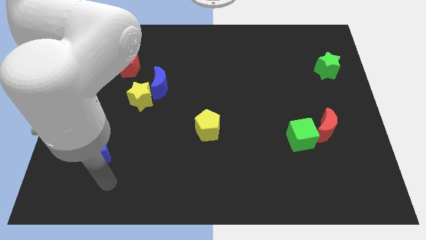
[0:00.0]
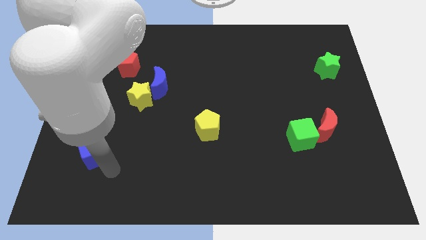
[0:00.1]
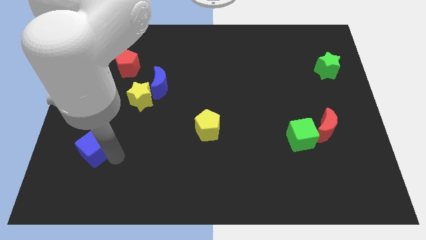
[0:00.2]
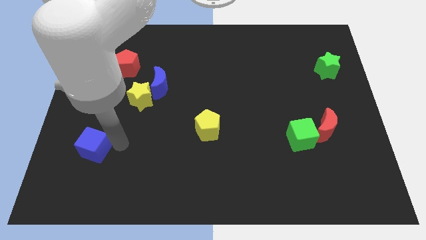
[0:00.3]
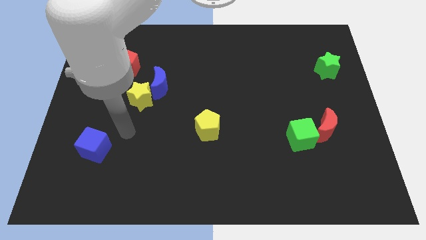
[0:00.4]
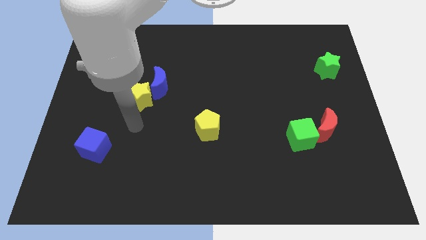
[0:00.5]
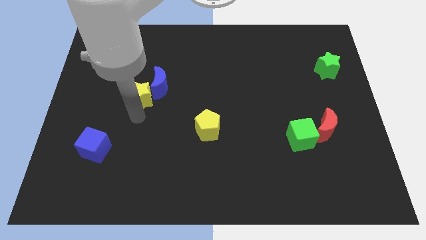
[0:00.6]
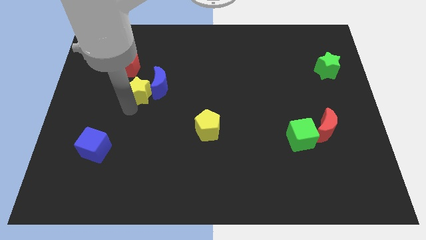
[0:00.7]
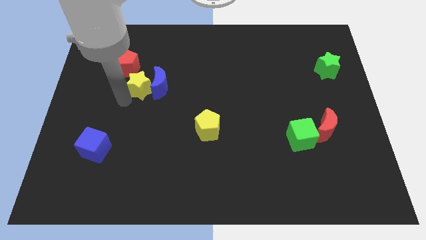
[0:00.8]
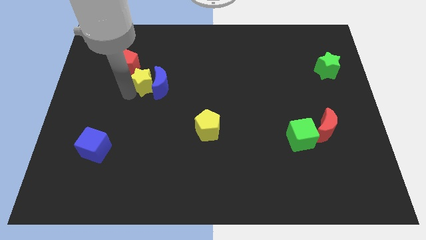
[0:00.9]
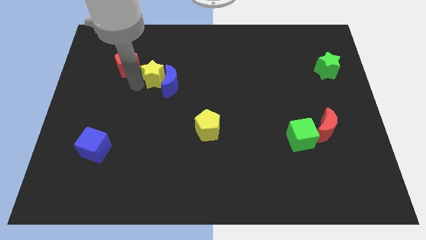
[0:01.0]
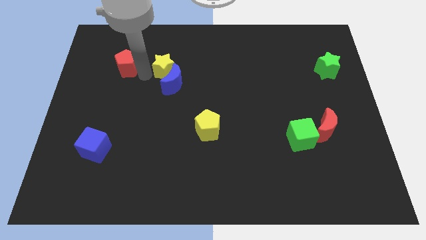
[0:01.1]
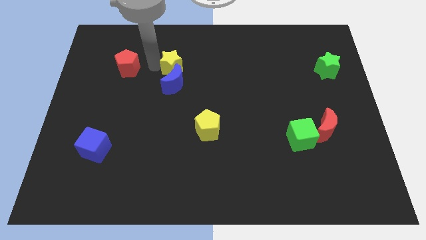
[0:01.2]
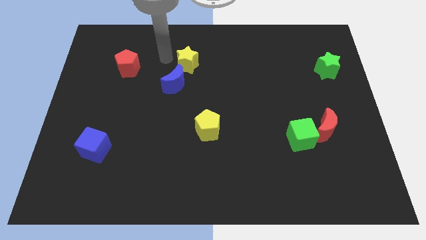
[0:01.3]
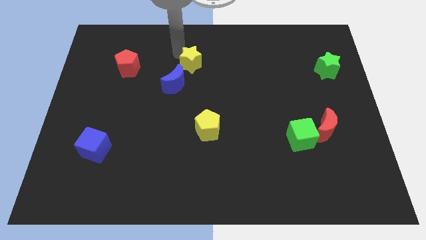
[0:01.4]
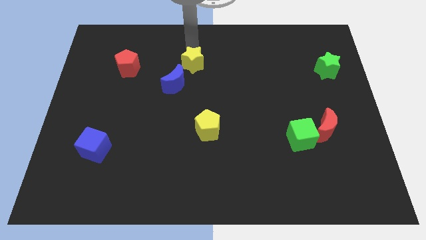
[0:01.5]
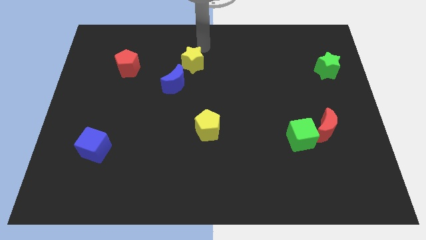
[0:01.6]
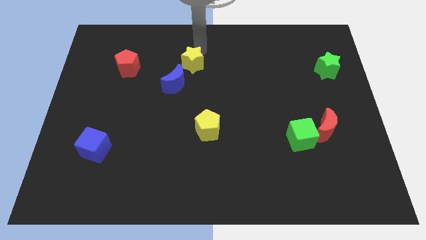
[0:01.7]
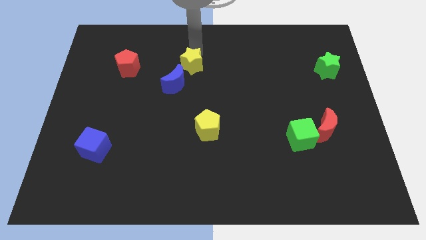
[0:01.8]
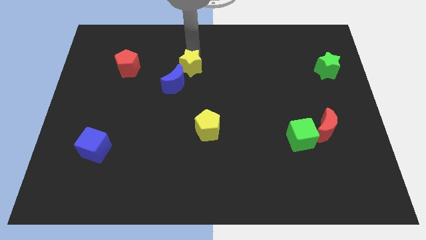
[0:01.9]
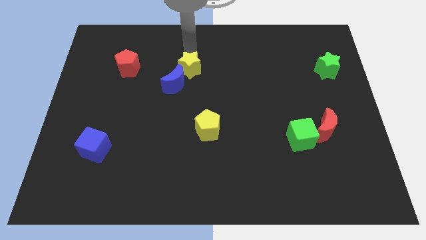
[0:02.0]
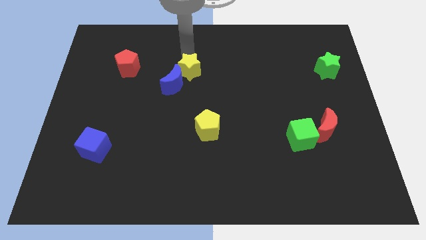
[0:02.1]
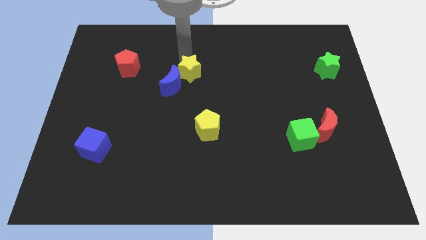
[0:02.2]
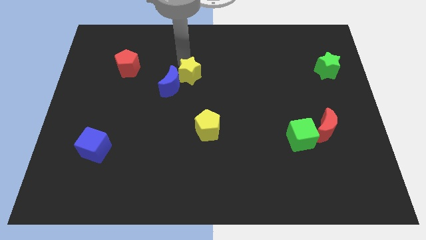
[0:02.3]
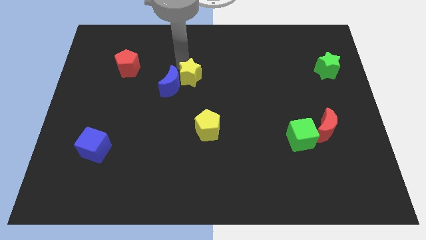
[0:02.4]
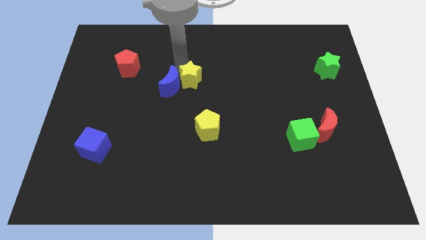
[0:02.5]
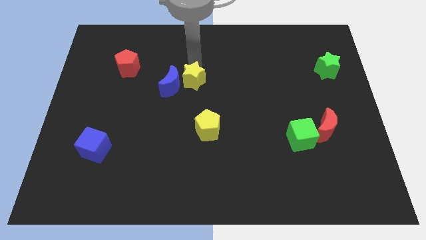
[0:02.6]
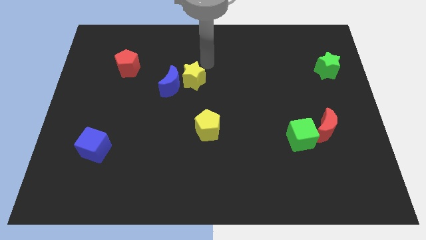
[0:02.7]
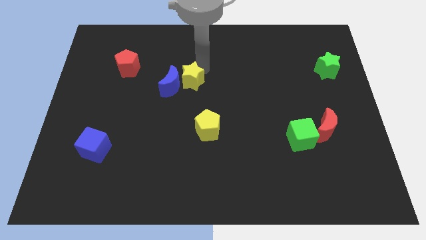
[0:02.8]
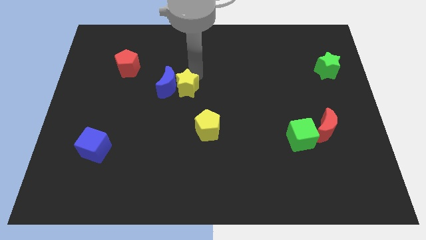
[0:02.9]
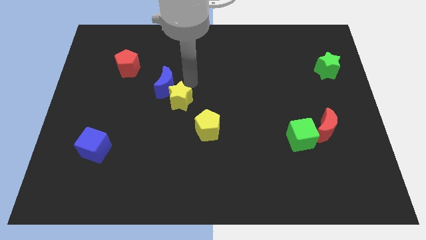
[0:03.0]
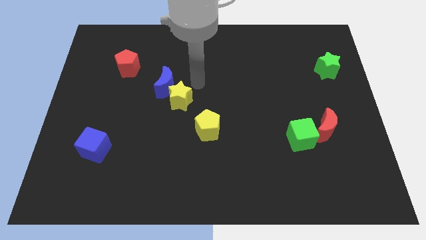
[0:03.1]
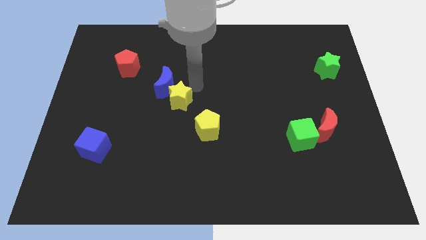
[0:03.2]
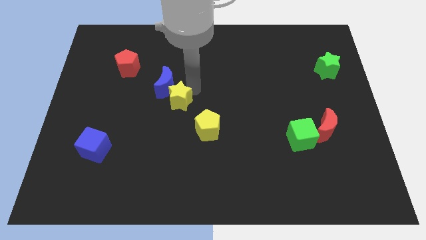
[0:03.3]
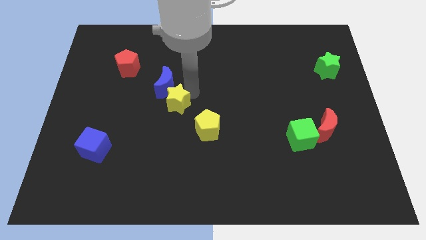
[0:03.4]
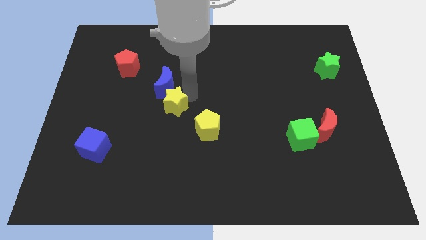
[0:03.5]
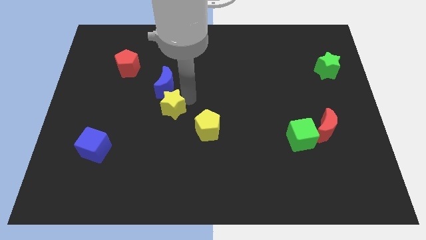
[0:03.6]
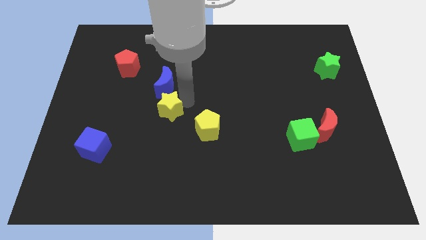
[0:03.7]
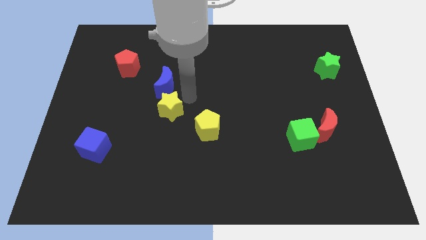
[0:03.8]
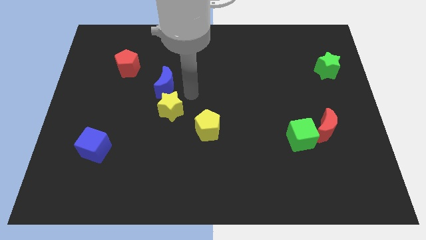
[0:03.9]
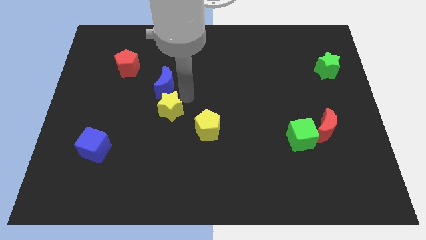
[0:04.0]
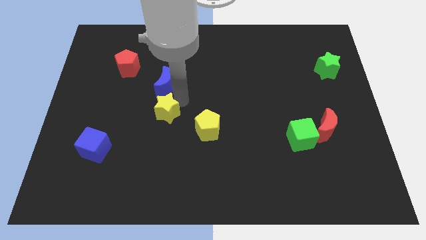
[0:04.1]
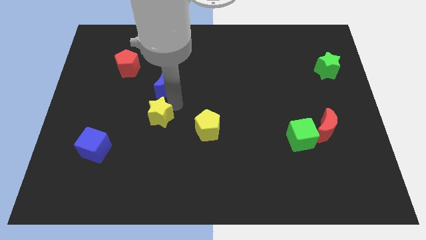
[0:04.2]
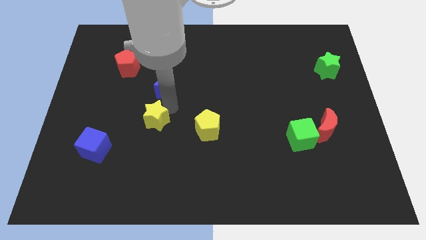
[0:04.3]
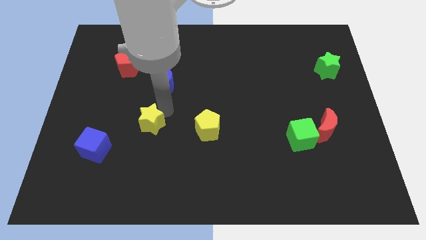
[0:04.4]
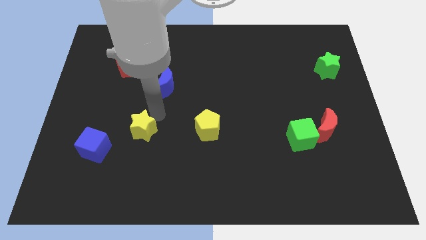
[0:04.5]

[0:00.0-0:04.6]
slightly push the yellow star downwards

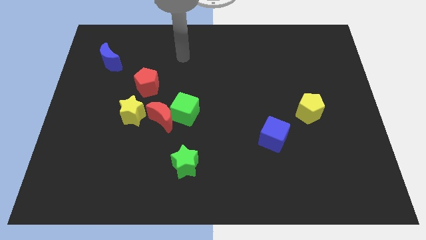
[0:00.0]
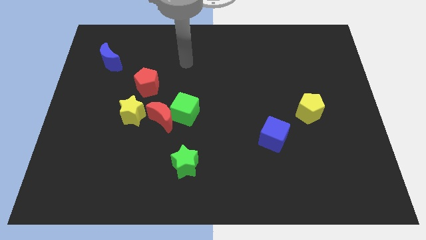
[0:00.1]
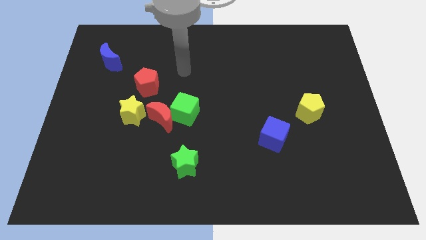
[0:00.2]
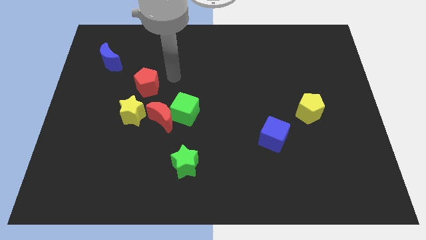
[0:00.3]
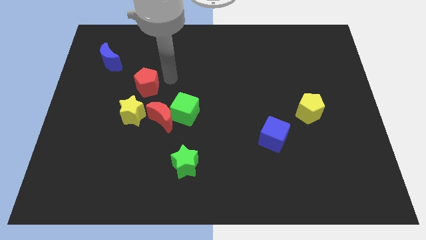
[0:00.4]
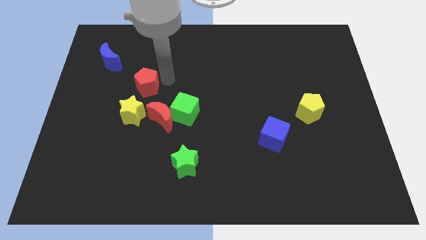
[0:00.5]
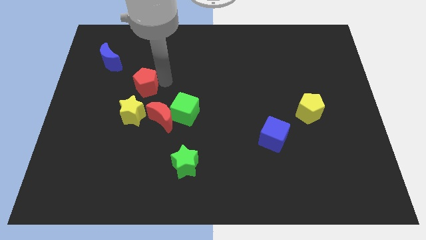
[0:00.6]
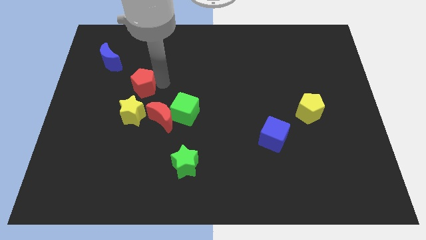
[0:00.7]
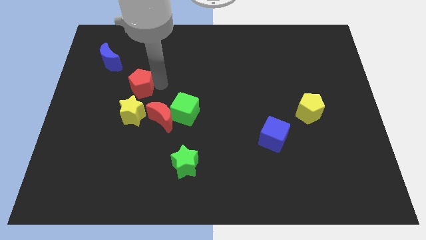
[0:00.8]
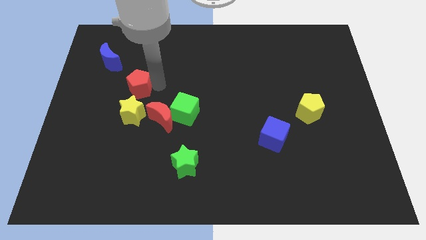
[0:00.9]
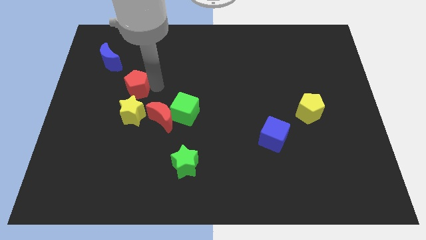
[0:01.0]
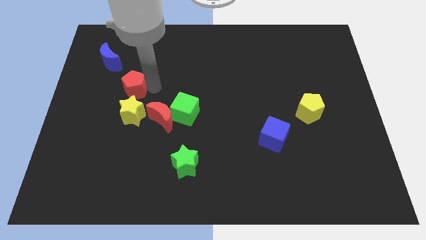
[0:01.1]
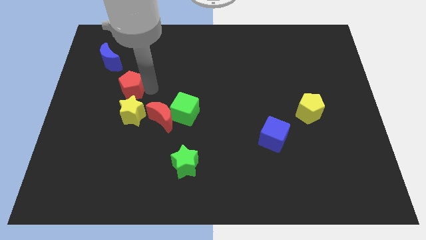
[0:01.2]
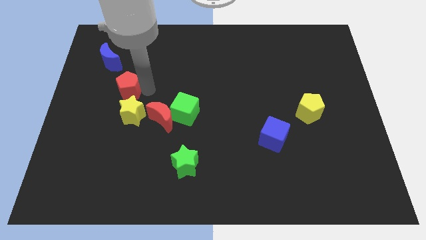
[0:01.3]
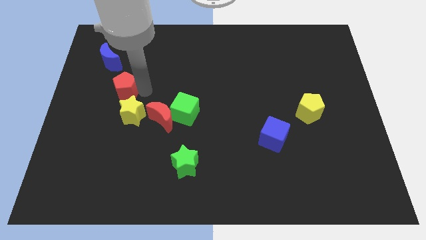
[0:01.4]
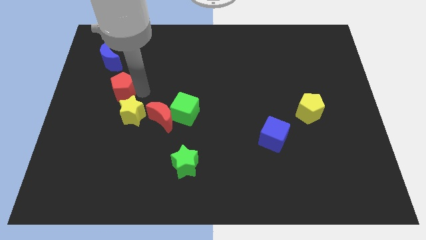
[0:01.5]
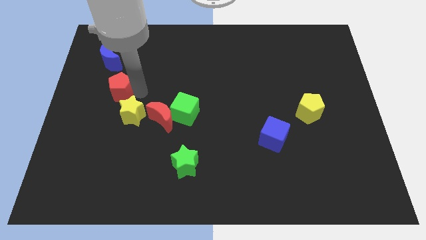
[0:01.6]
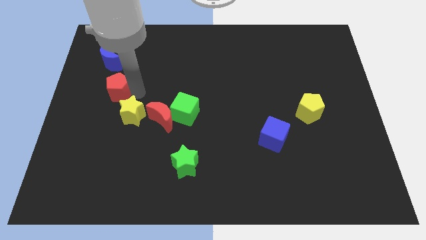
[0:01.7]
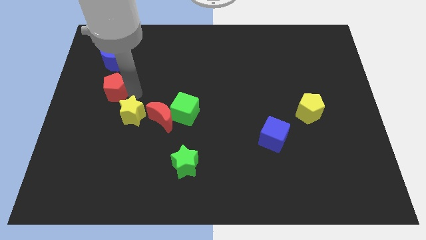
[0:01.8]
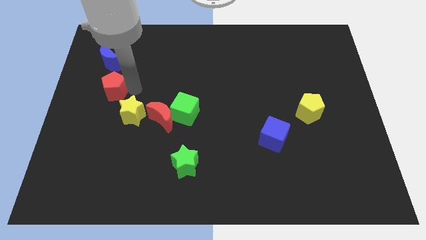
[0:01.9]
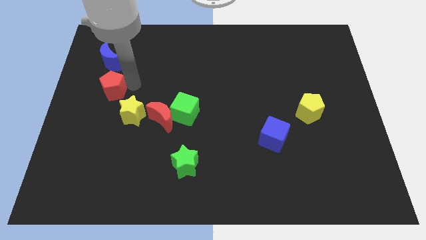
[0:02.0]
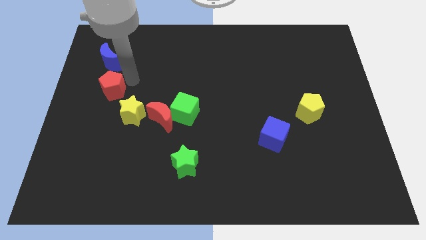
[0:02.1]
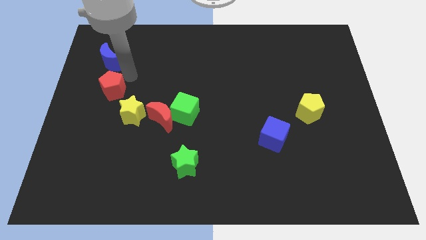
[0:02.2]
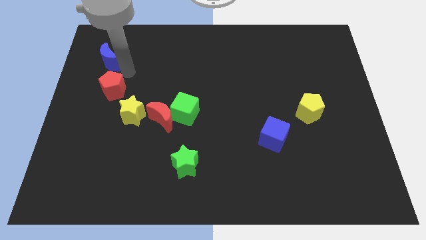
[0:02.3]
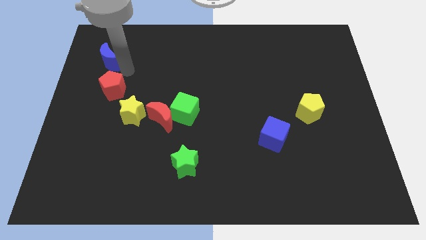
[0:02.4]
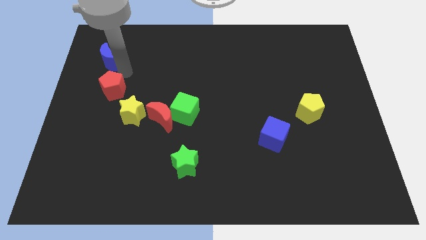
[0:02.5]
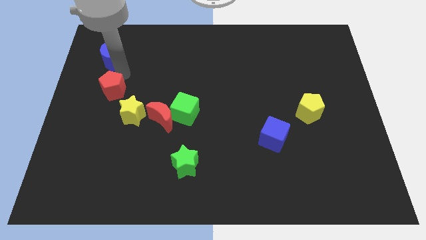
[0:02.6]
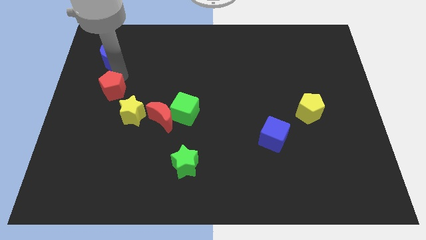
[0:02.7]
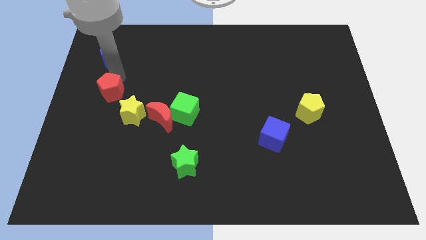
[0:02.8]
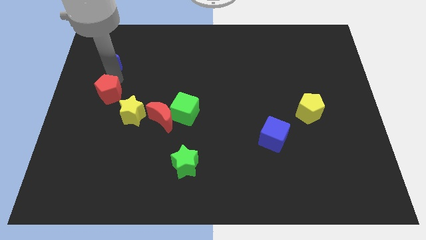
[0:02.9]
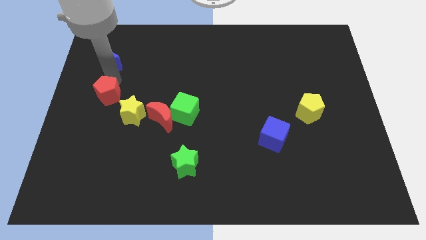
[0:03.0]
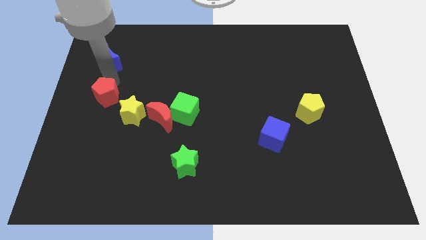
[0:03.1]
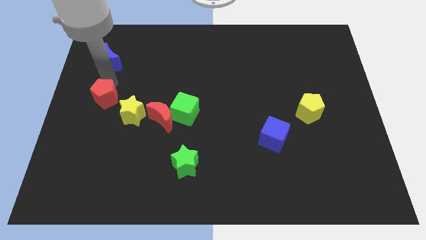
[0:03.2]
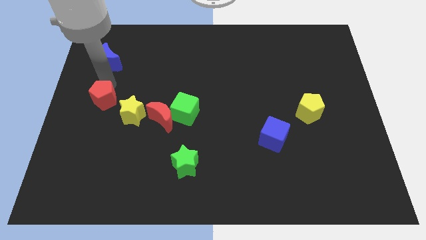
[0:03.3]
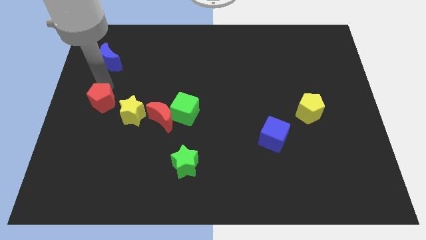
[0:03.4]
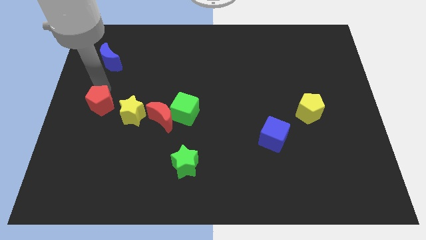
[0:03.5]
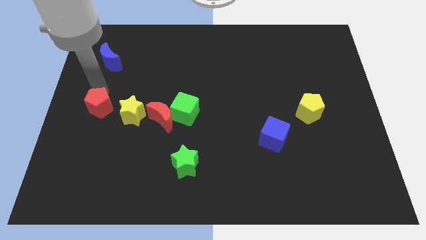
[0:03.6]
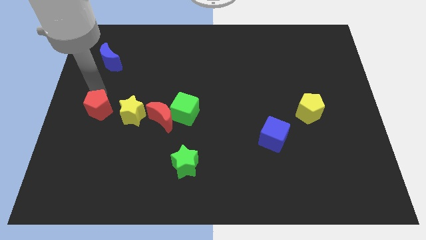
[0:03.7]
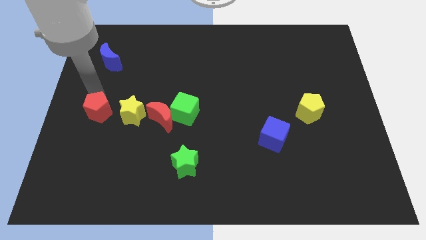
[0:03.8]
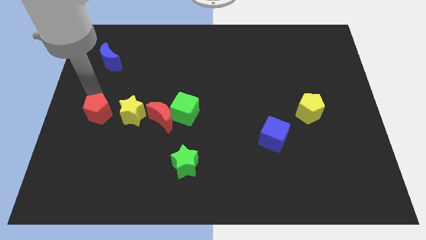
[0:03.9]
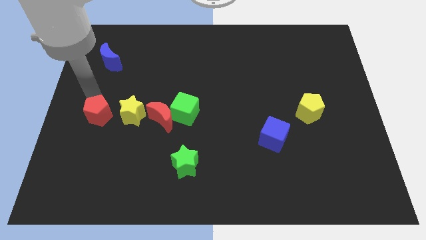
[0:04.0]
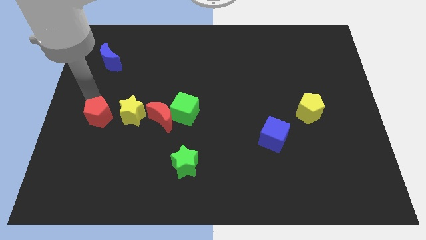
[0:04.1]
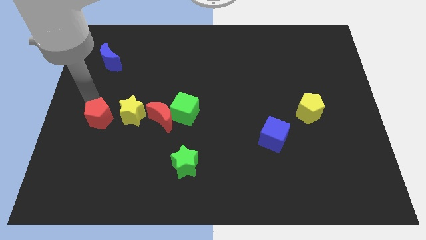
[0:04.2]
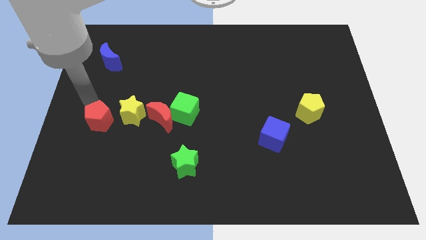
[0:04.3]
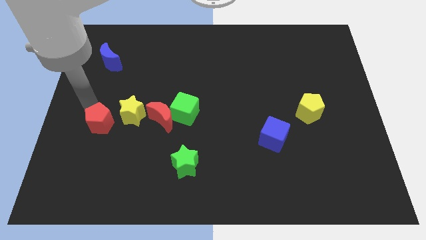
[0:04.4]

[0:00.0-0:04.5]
slightly push the red pentagon downwards
